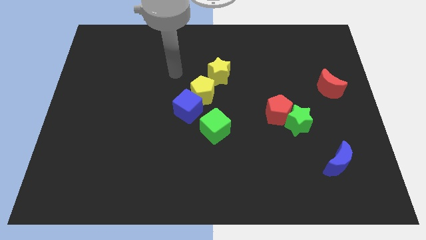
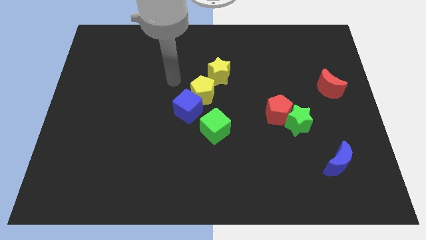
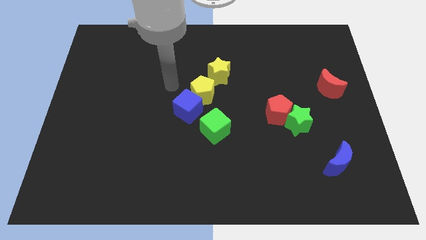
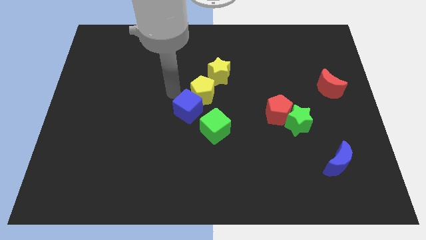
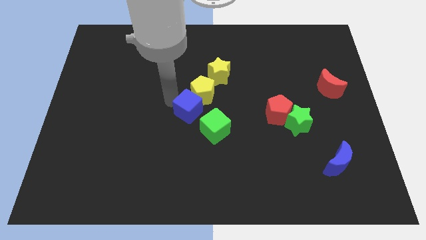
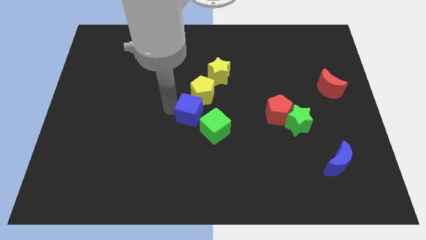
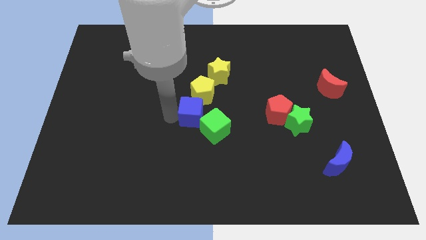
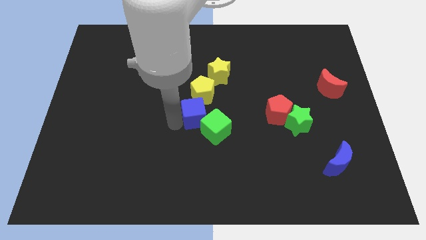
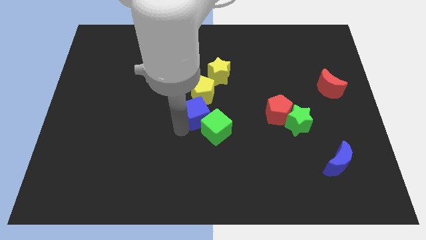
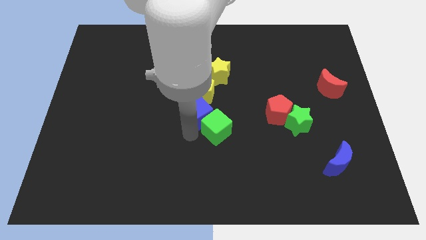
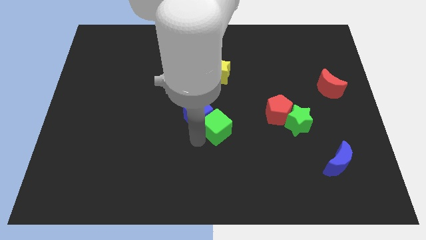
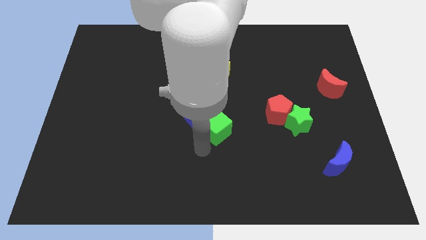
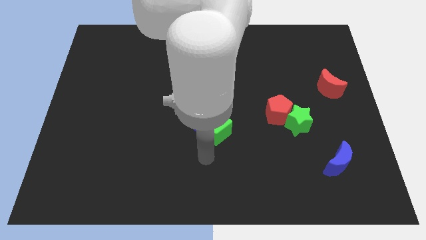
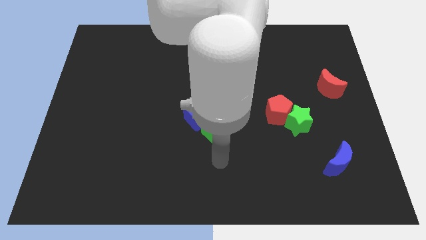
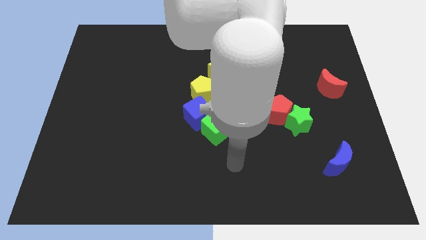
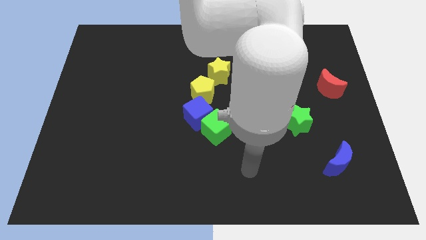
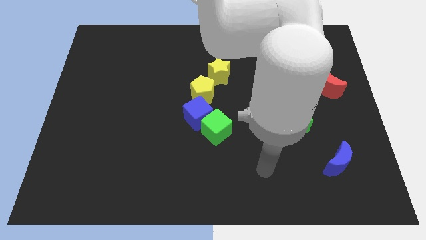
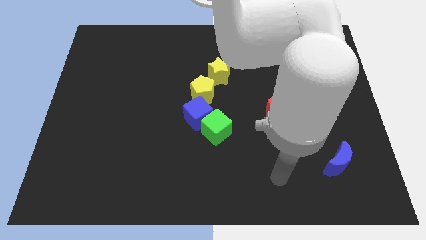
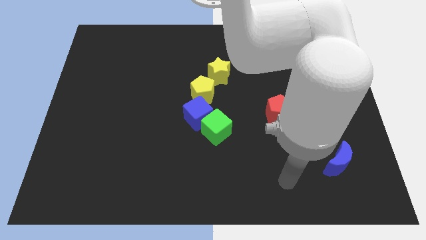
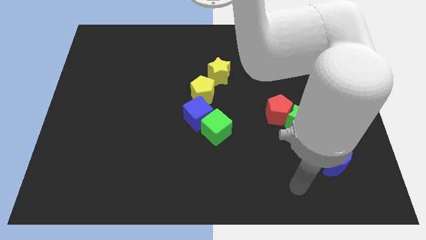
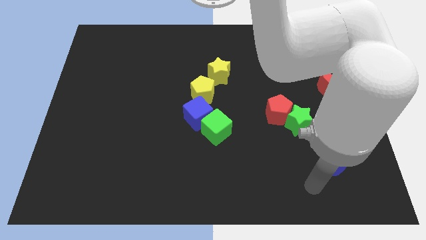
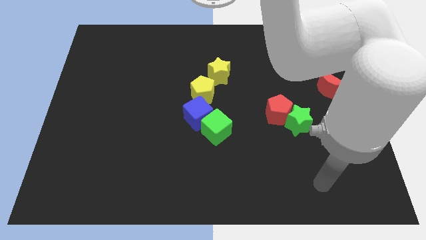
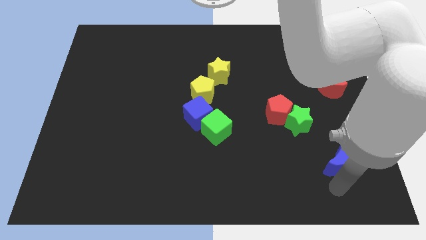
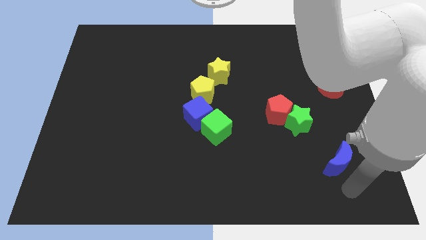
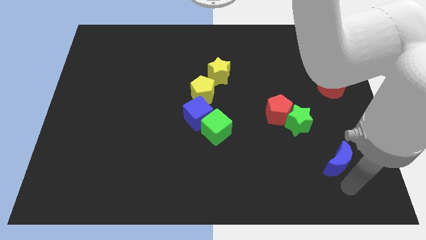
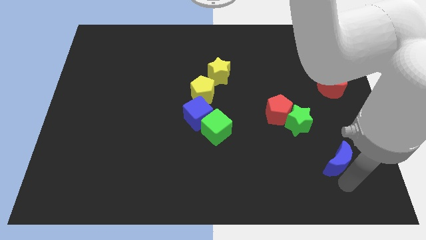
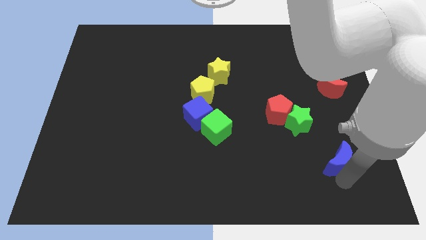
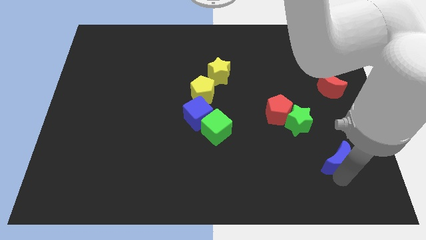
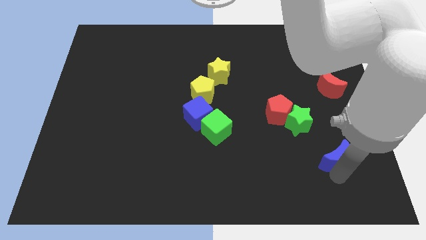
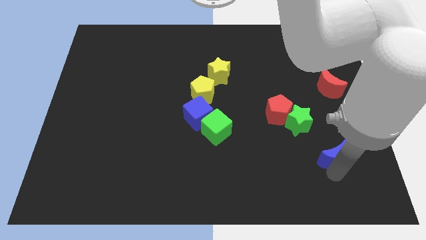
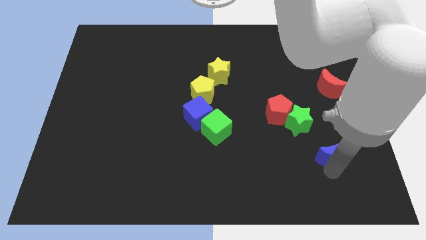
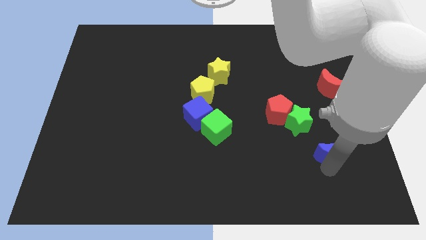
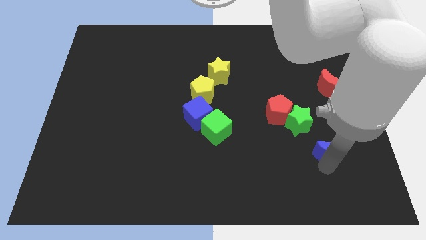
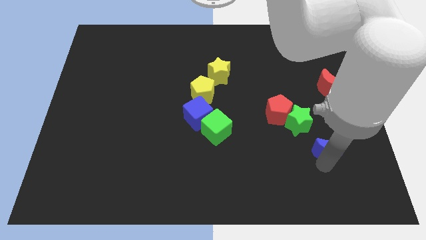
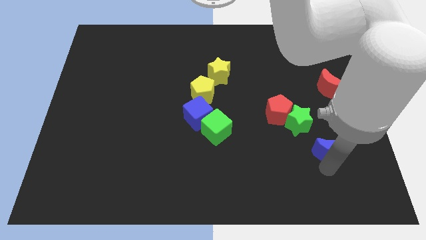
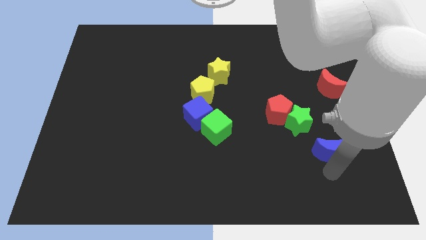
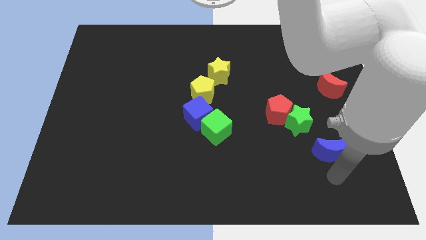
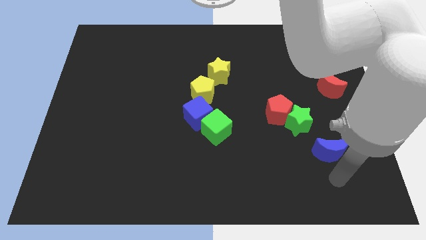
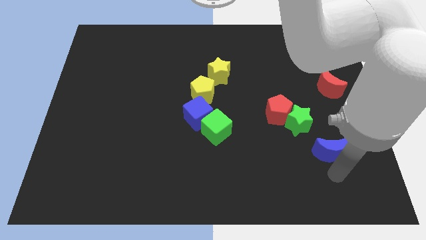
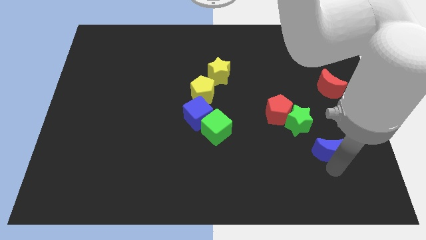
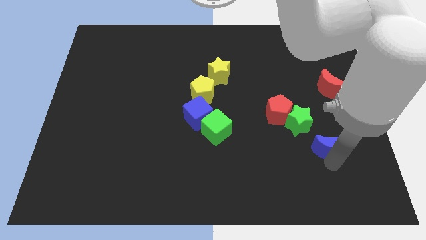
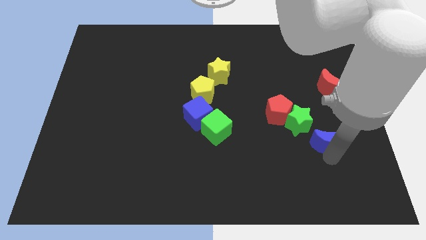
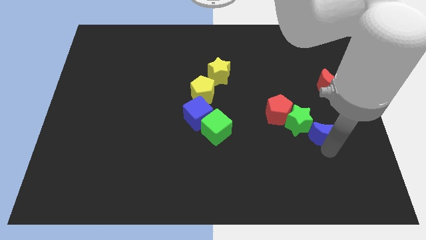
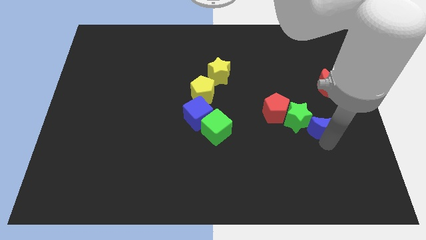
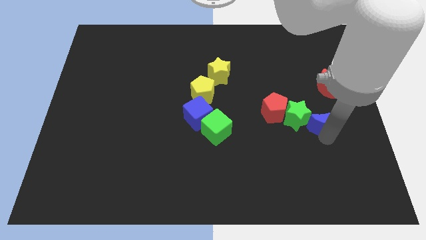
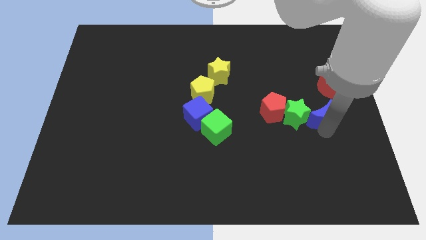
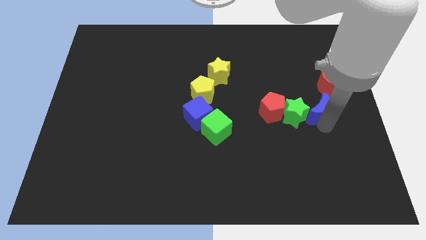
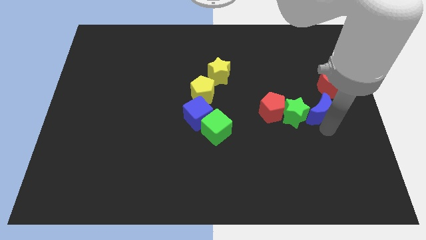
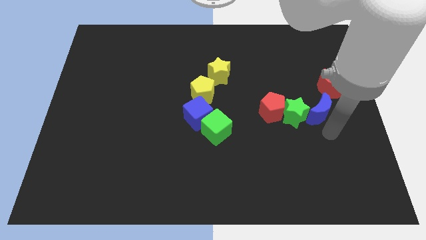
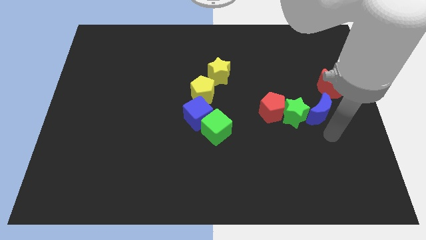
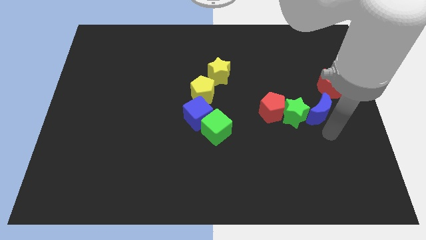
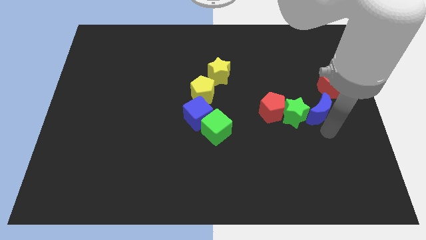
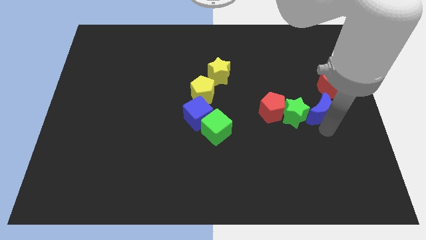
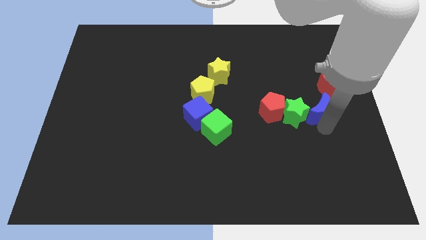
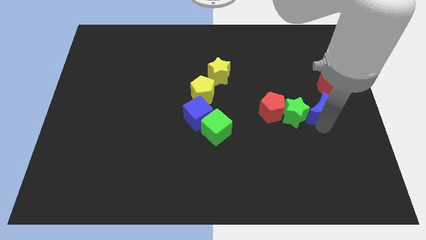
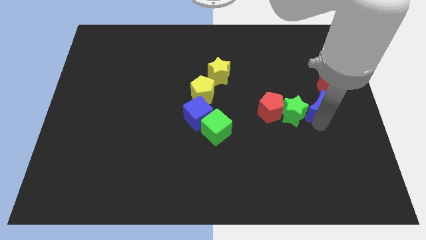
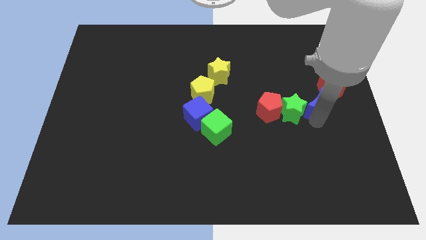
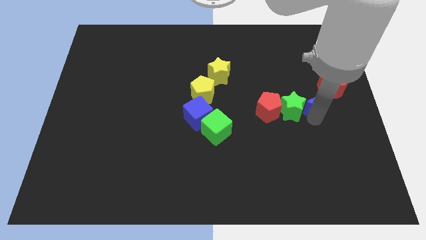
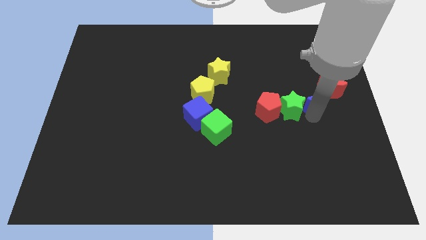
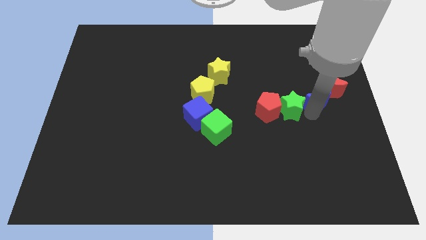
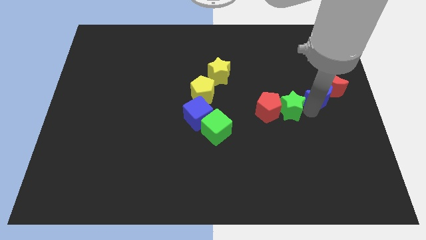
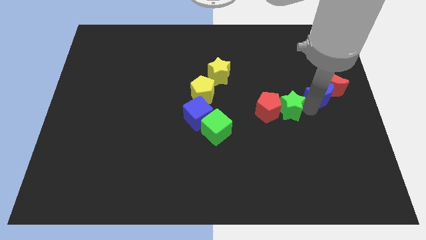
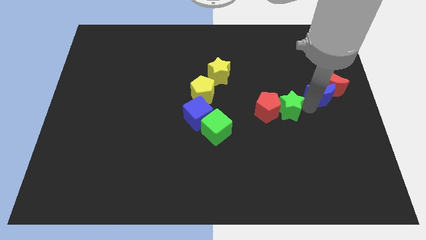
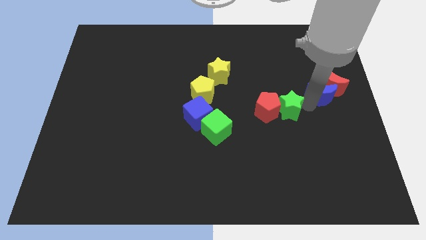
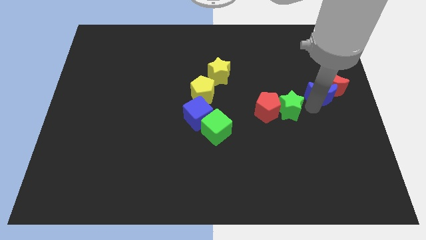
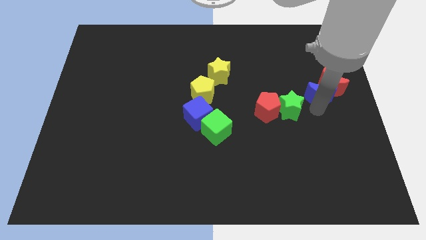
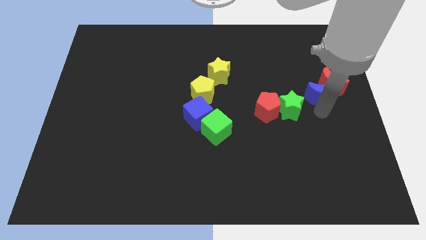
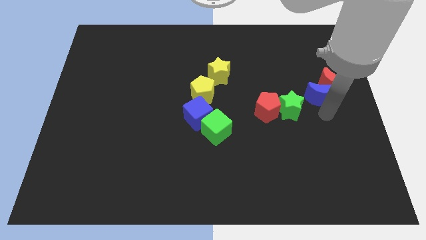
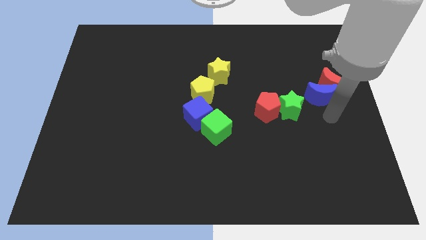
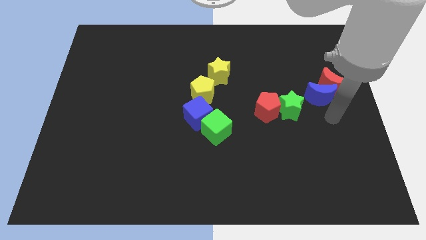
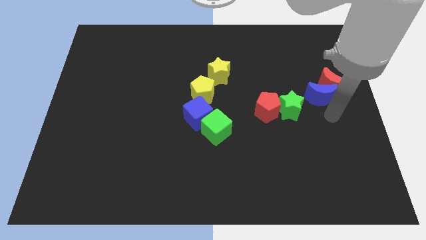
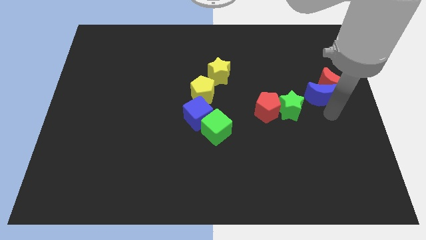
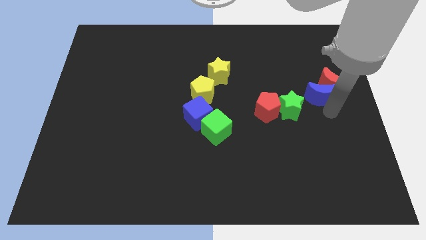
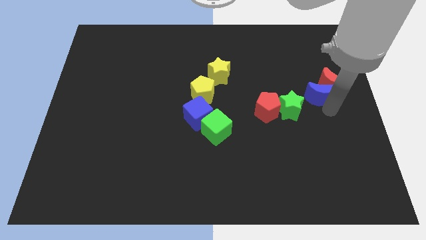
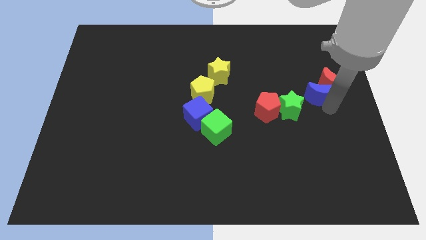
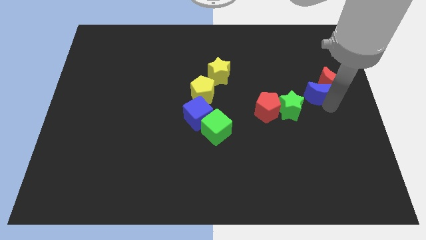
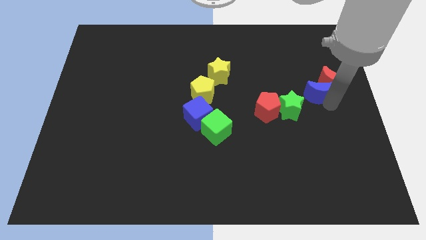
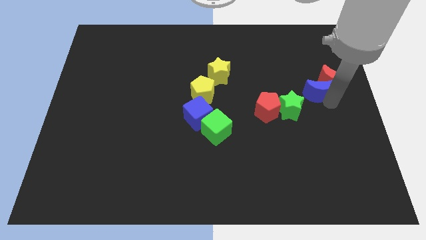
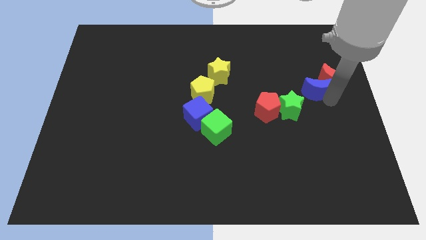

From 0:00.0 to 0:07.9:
move the blue moon upwards
